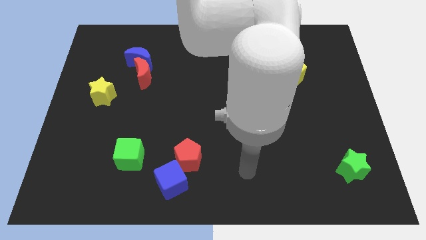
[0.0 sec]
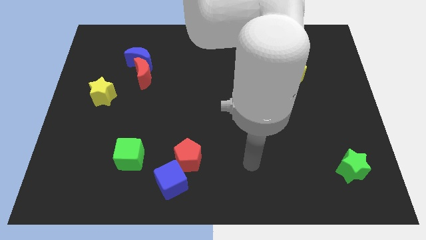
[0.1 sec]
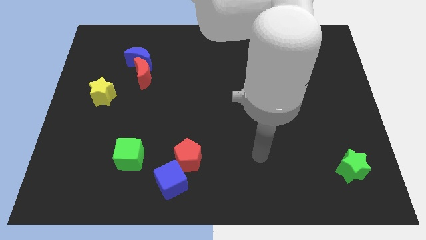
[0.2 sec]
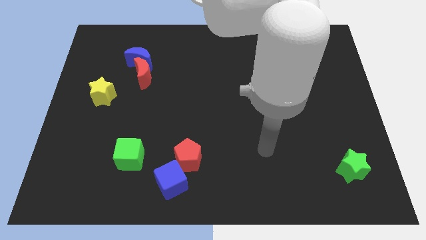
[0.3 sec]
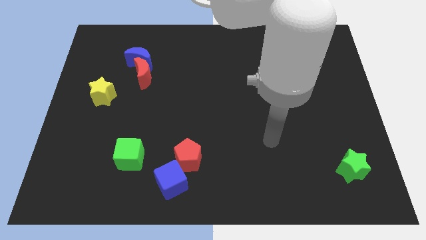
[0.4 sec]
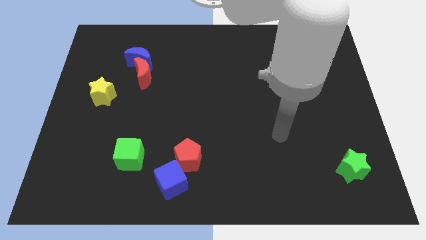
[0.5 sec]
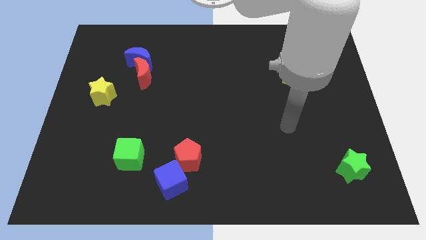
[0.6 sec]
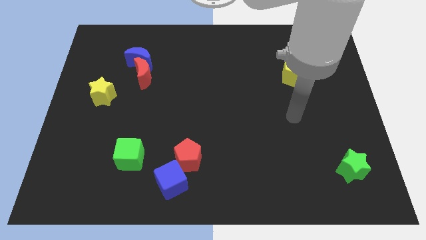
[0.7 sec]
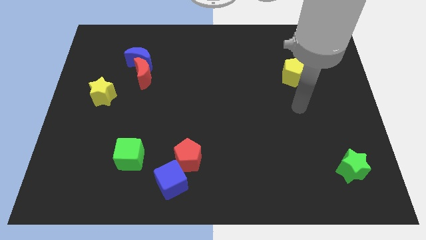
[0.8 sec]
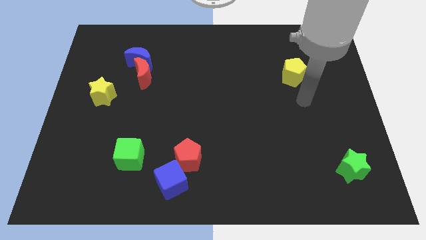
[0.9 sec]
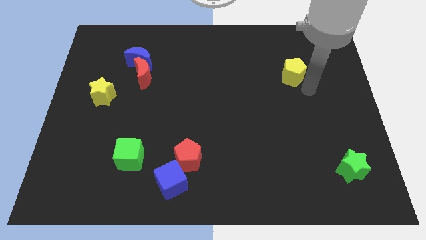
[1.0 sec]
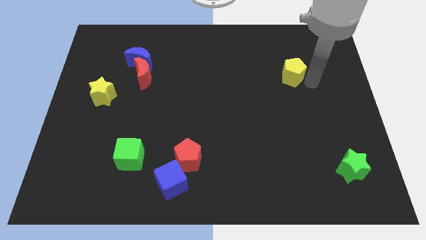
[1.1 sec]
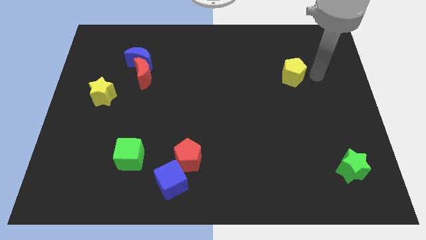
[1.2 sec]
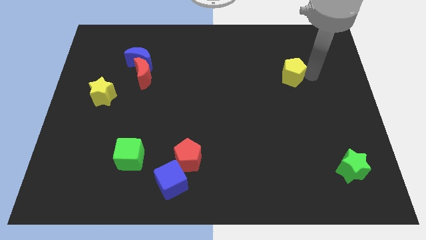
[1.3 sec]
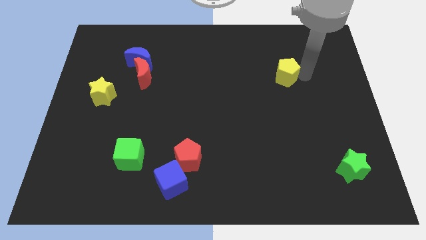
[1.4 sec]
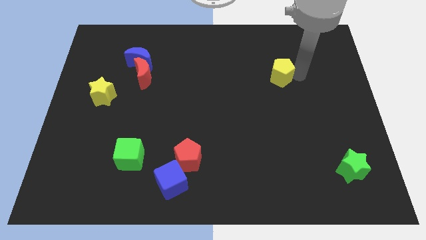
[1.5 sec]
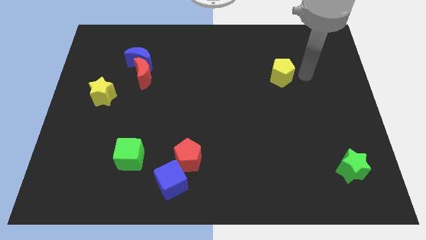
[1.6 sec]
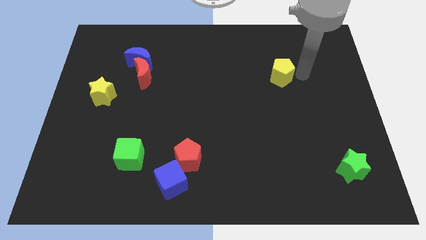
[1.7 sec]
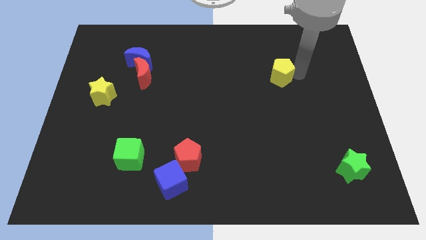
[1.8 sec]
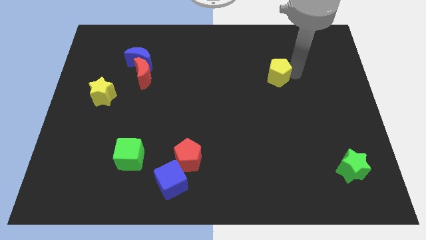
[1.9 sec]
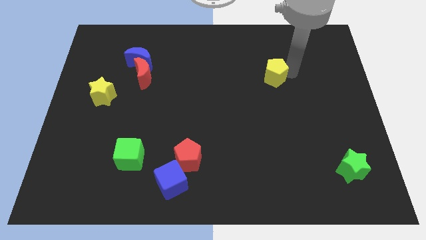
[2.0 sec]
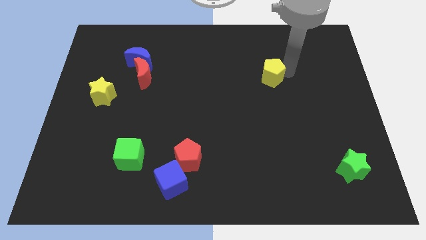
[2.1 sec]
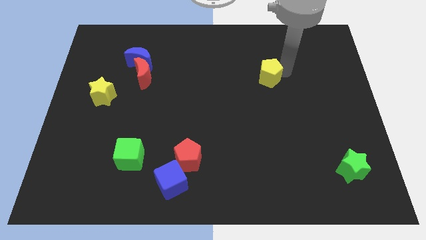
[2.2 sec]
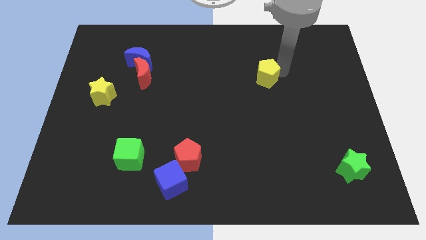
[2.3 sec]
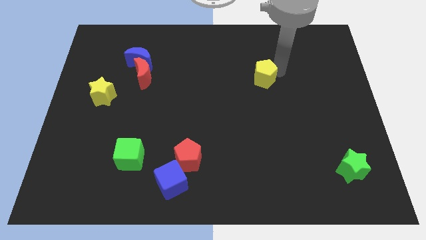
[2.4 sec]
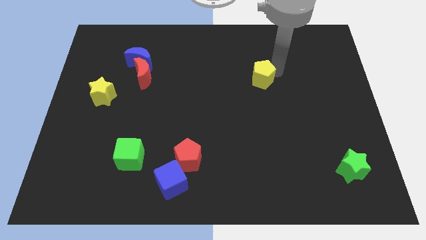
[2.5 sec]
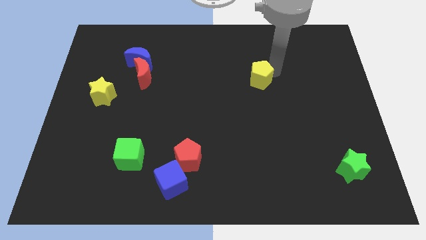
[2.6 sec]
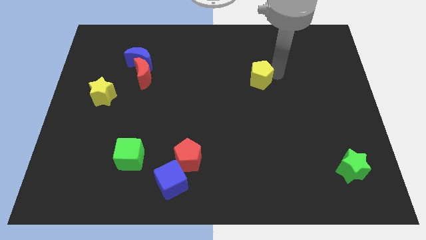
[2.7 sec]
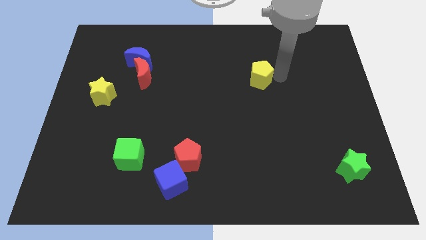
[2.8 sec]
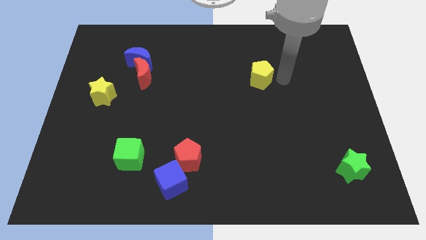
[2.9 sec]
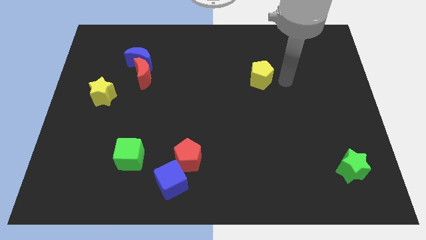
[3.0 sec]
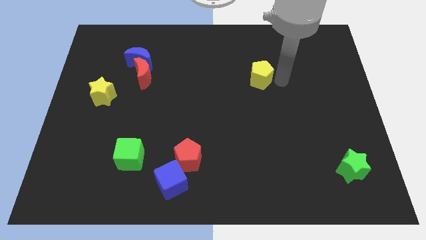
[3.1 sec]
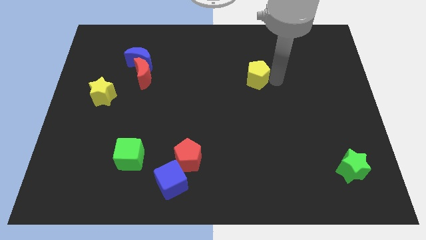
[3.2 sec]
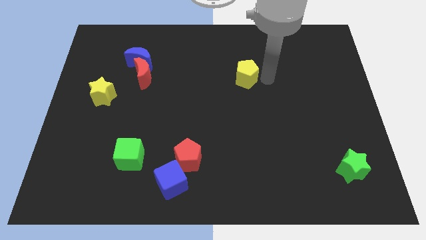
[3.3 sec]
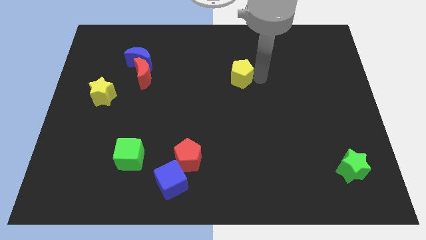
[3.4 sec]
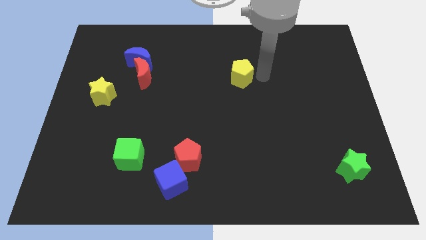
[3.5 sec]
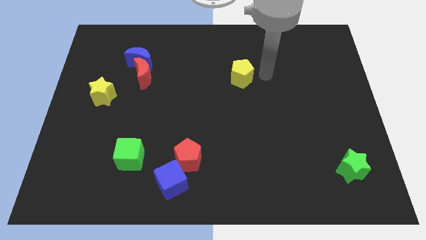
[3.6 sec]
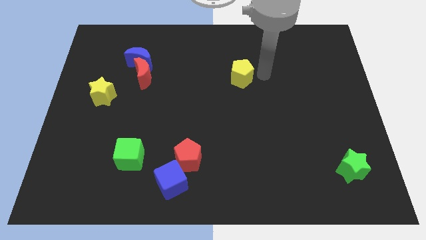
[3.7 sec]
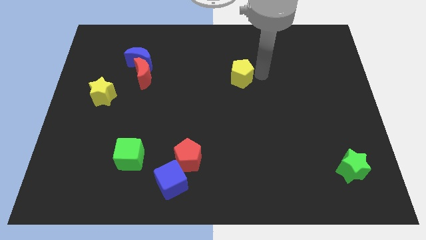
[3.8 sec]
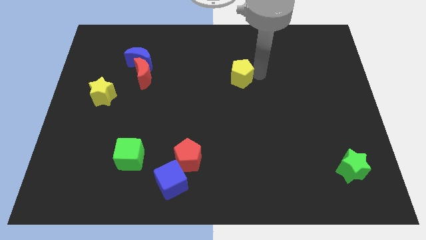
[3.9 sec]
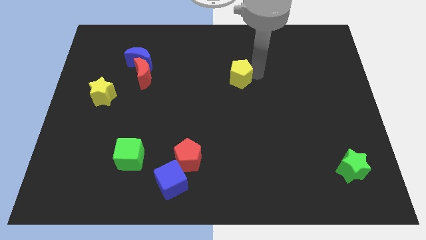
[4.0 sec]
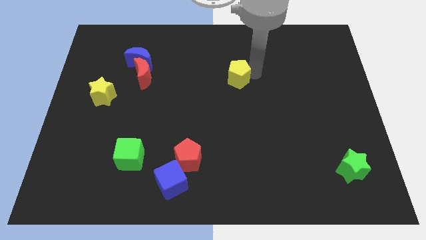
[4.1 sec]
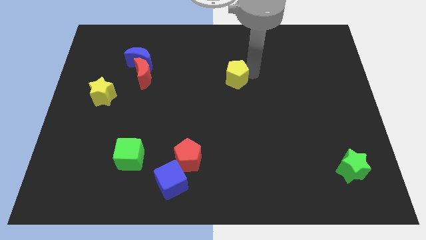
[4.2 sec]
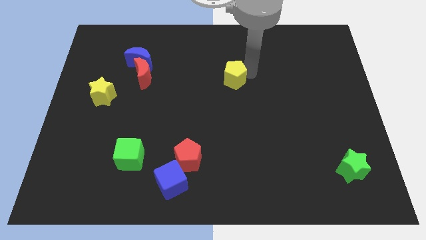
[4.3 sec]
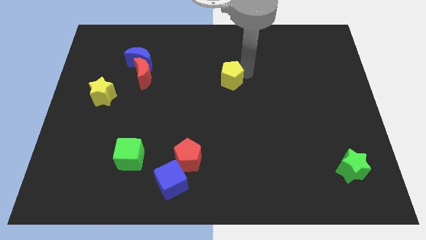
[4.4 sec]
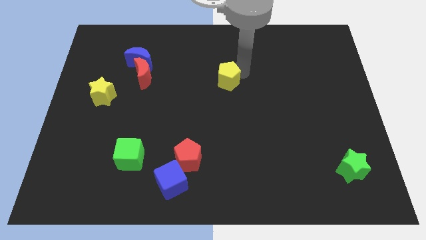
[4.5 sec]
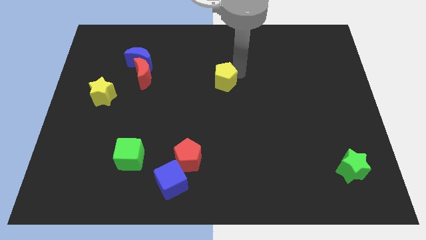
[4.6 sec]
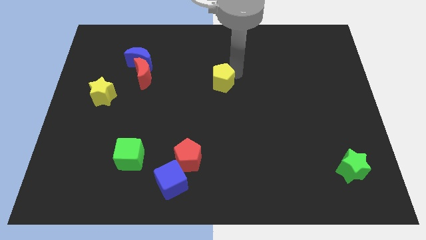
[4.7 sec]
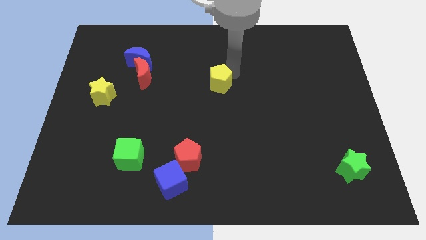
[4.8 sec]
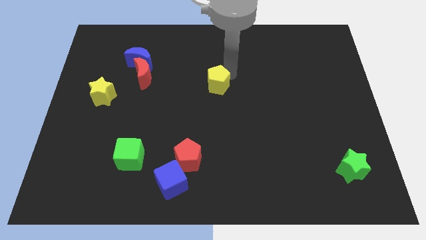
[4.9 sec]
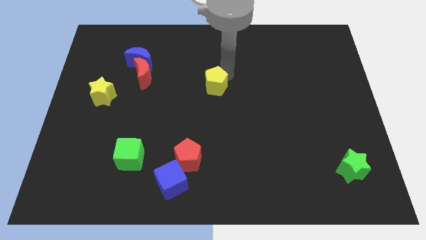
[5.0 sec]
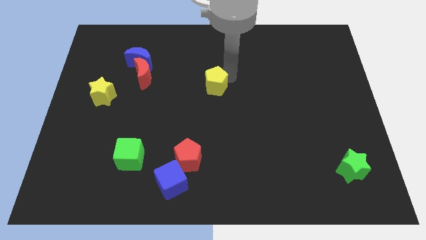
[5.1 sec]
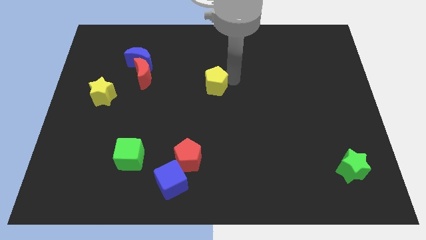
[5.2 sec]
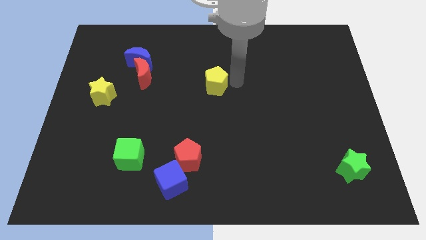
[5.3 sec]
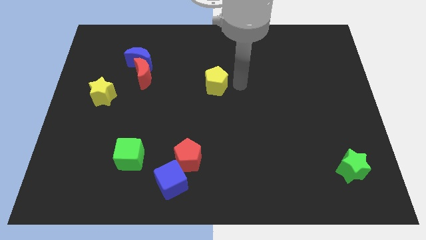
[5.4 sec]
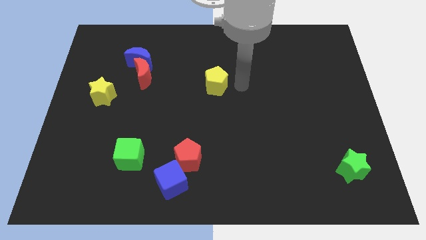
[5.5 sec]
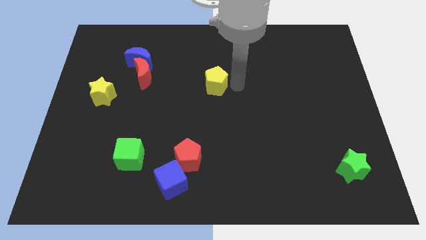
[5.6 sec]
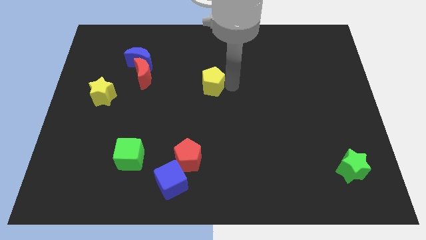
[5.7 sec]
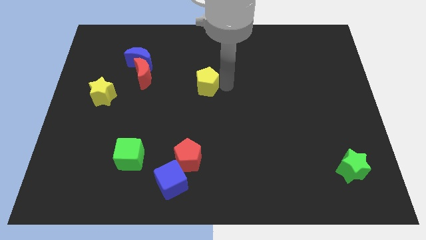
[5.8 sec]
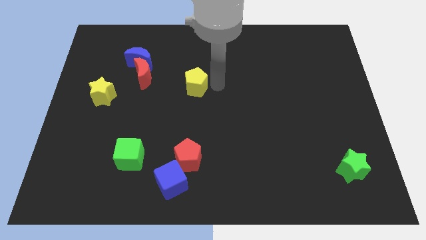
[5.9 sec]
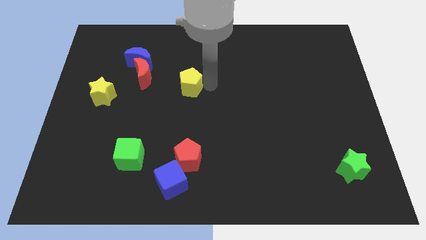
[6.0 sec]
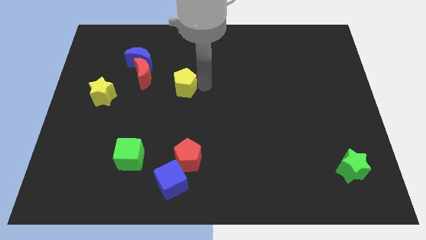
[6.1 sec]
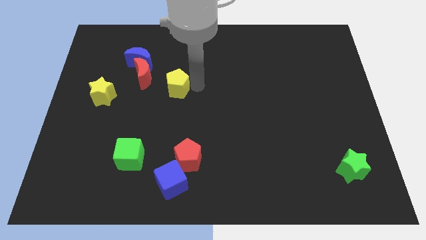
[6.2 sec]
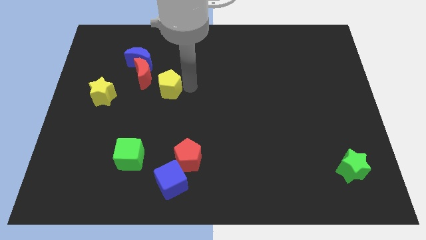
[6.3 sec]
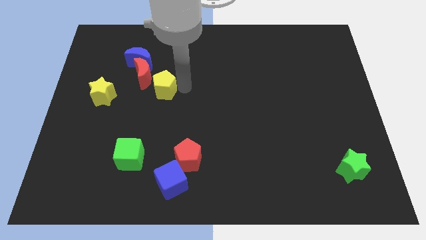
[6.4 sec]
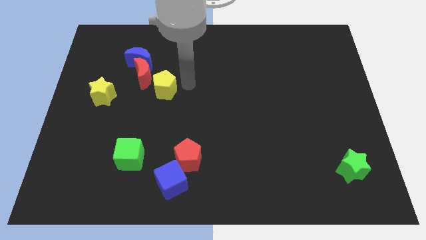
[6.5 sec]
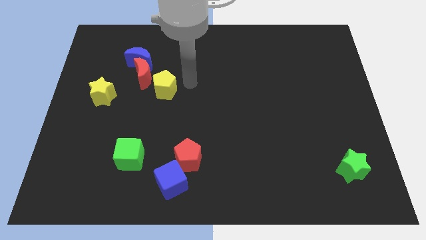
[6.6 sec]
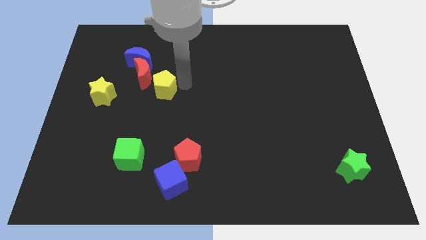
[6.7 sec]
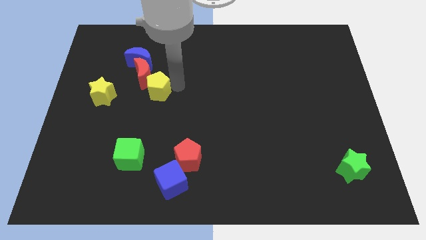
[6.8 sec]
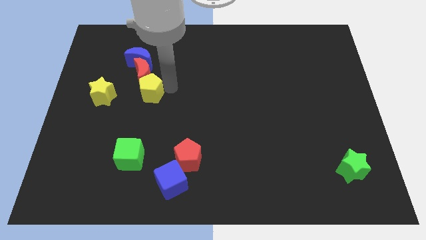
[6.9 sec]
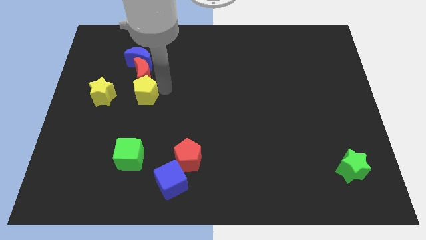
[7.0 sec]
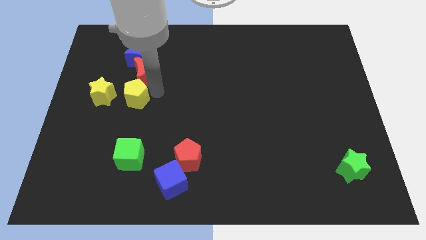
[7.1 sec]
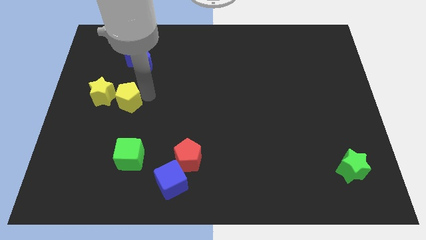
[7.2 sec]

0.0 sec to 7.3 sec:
push the yellow pentagon to the yellow star
